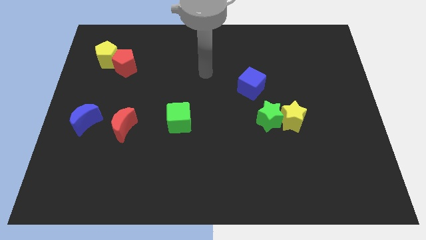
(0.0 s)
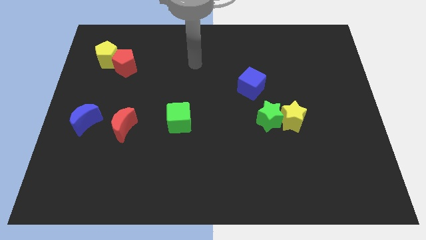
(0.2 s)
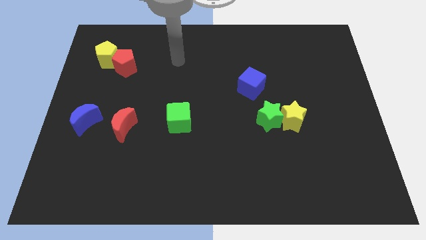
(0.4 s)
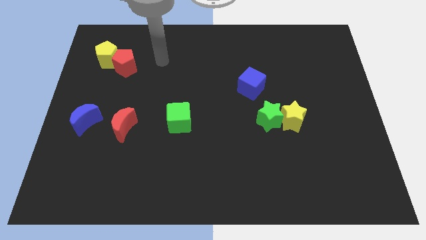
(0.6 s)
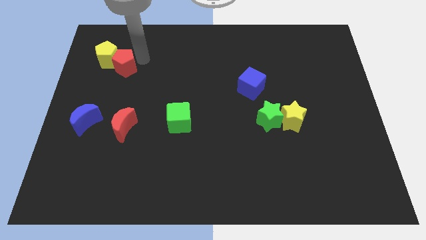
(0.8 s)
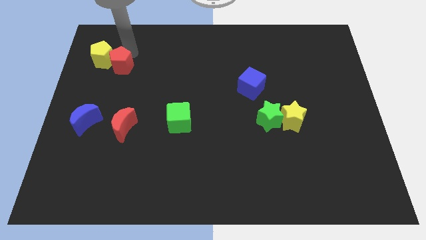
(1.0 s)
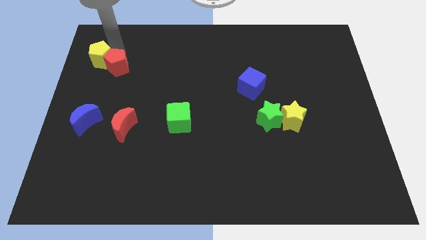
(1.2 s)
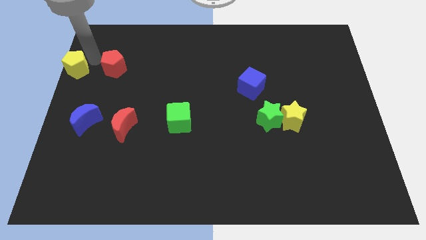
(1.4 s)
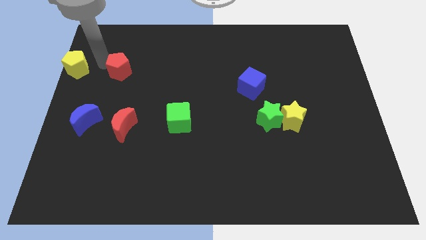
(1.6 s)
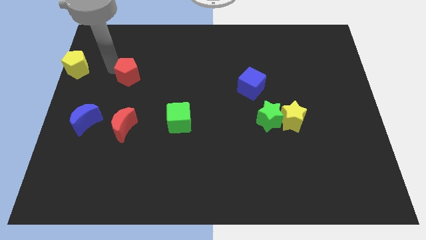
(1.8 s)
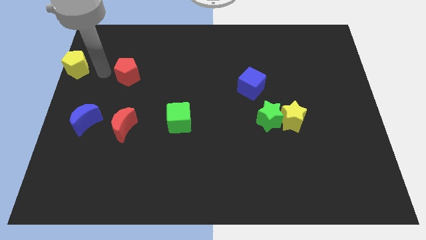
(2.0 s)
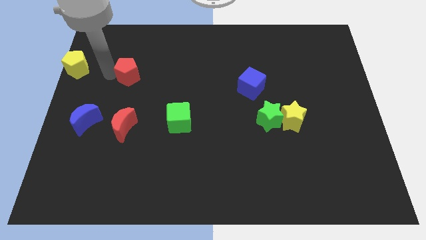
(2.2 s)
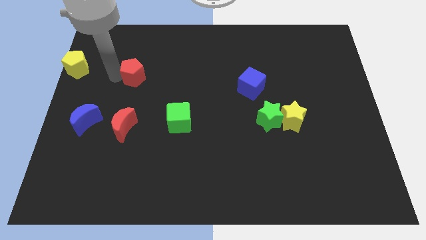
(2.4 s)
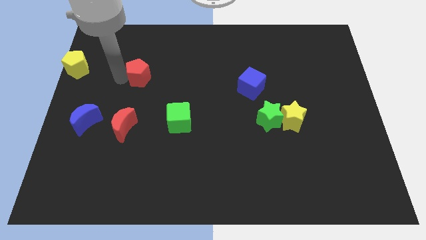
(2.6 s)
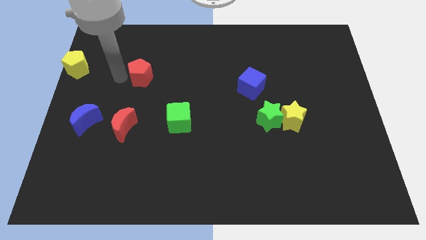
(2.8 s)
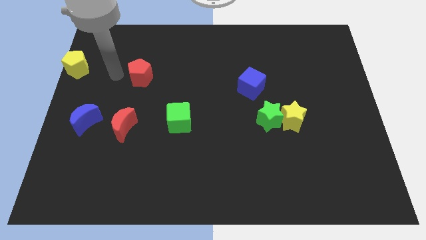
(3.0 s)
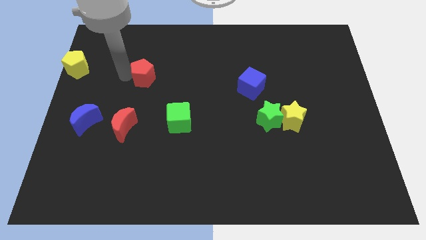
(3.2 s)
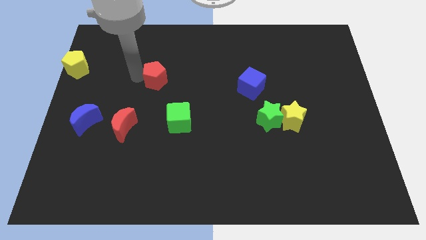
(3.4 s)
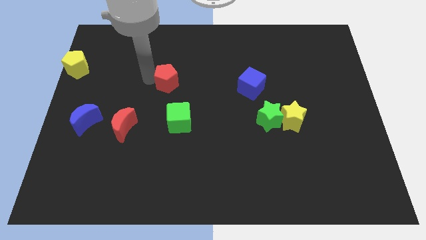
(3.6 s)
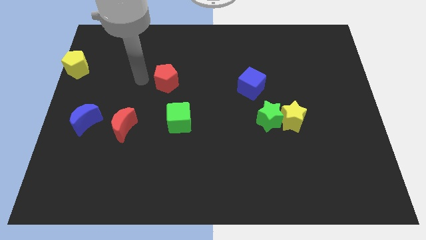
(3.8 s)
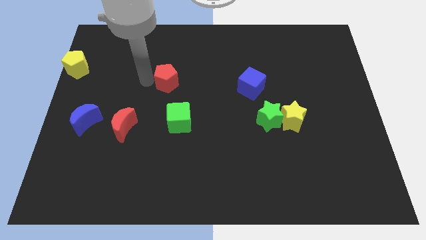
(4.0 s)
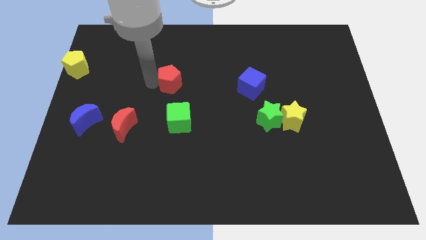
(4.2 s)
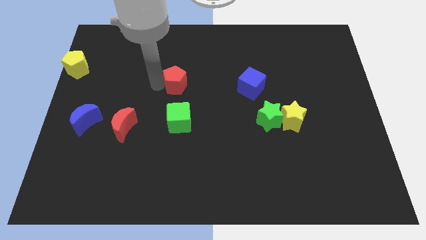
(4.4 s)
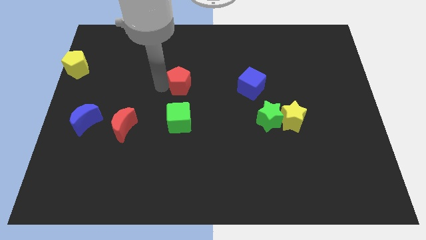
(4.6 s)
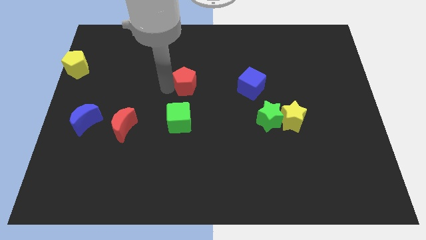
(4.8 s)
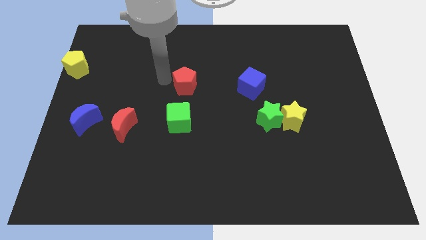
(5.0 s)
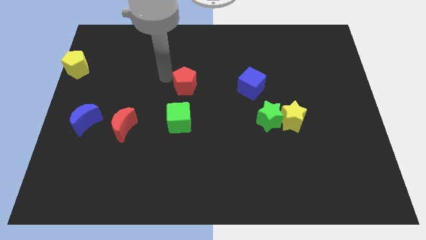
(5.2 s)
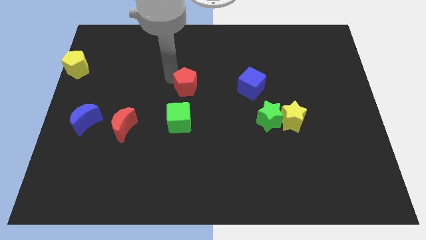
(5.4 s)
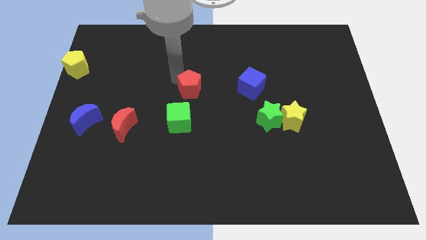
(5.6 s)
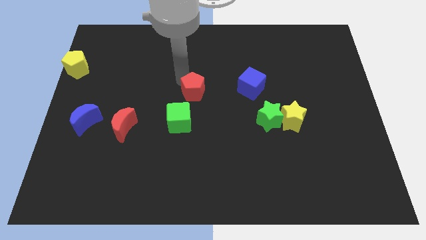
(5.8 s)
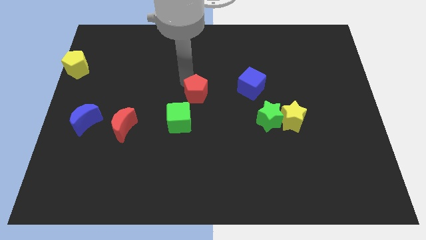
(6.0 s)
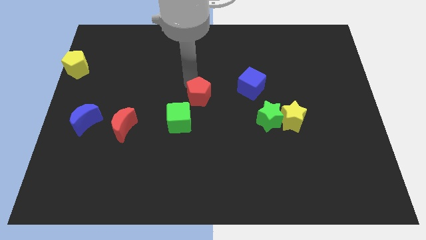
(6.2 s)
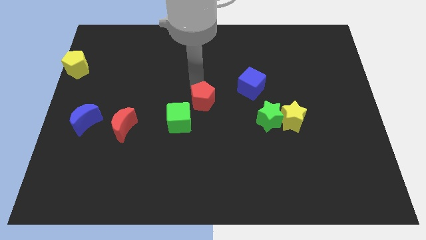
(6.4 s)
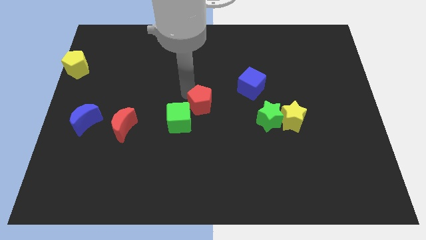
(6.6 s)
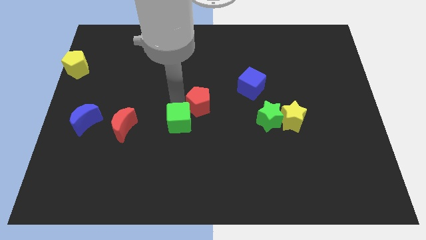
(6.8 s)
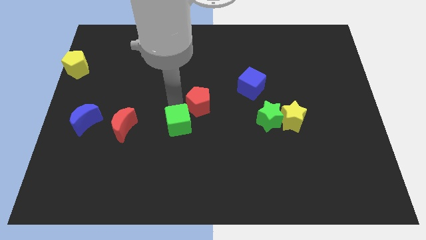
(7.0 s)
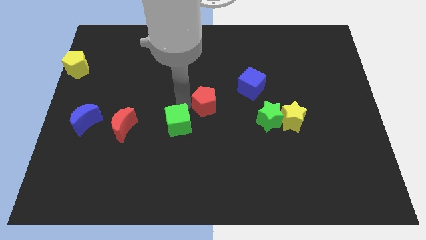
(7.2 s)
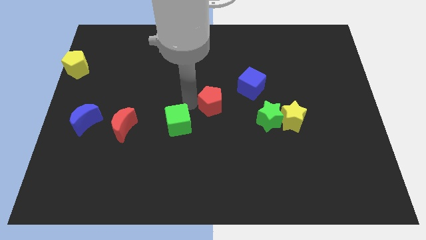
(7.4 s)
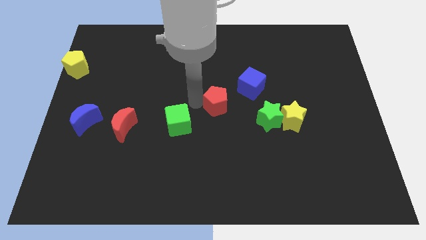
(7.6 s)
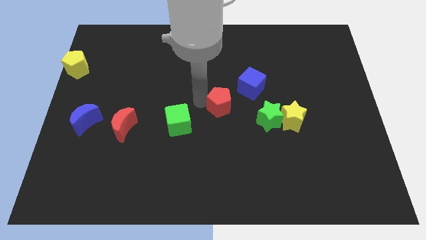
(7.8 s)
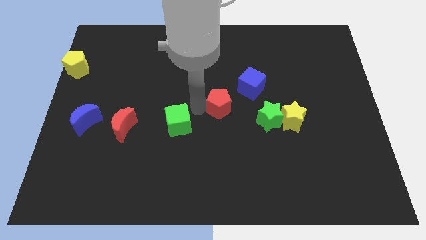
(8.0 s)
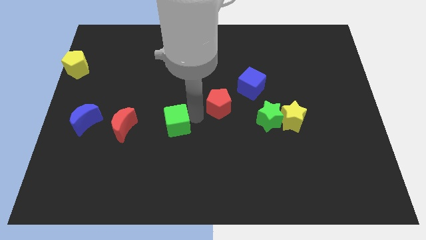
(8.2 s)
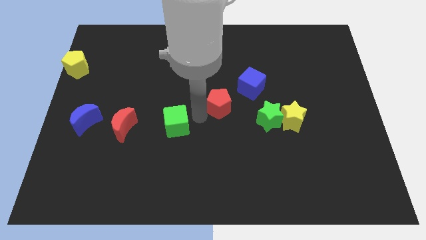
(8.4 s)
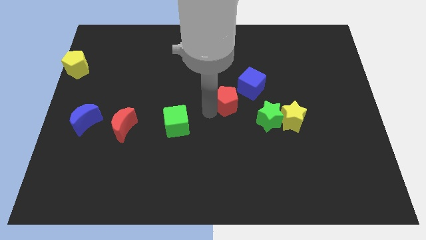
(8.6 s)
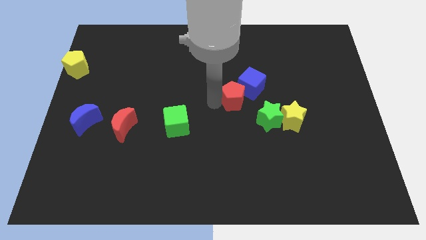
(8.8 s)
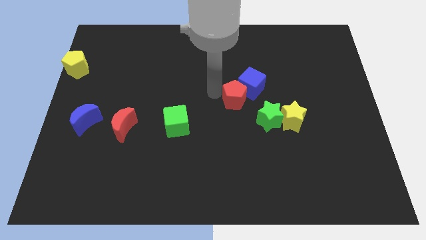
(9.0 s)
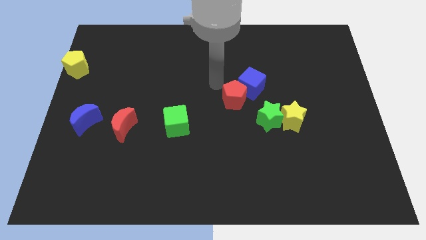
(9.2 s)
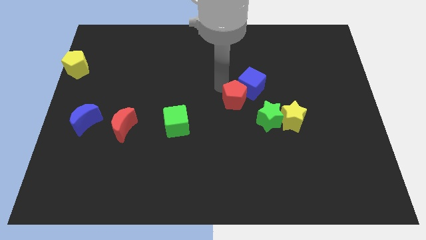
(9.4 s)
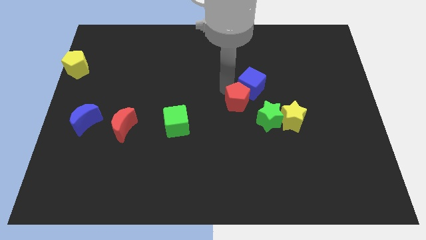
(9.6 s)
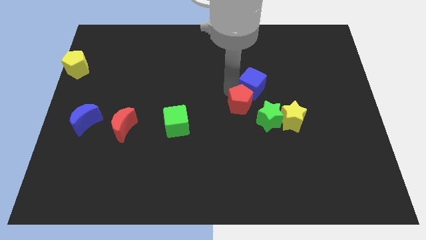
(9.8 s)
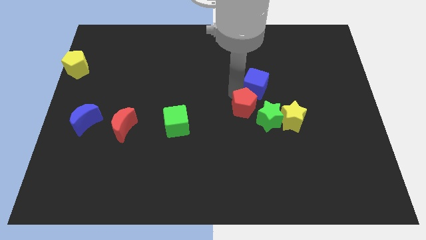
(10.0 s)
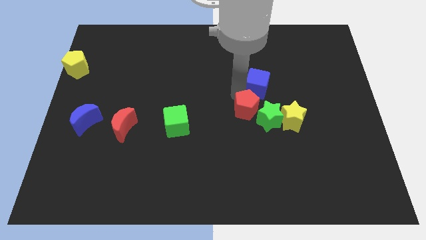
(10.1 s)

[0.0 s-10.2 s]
slide the red pentagon to the green star

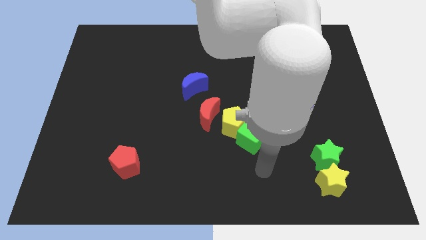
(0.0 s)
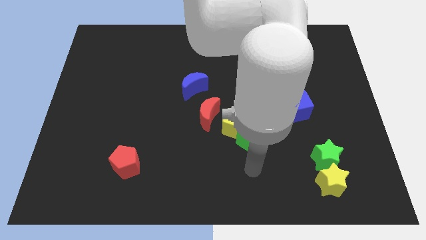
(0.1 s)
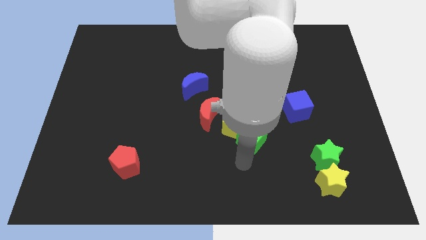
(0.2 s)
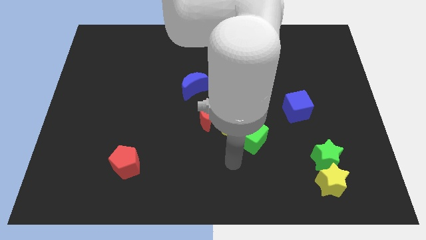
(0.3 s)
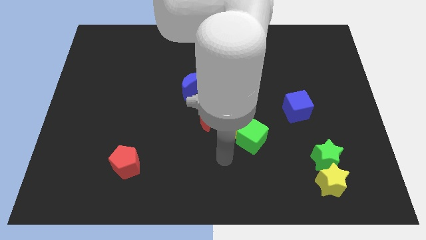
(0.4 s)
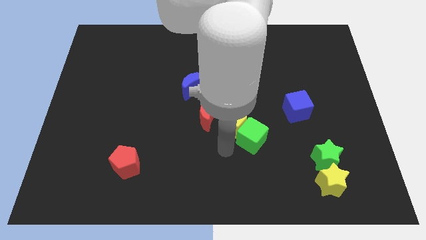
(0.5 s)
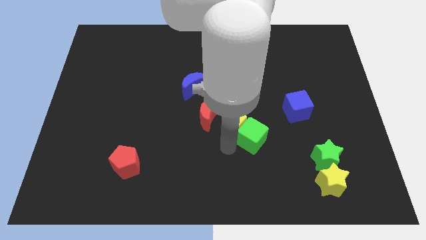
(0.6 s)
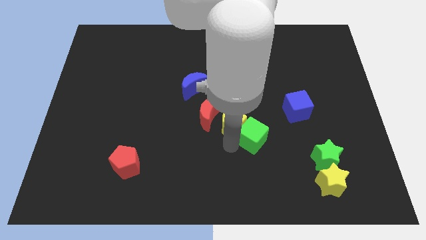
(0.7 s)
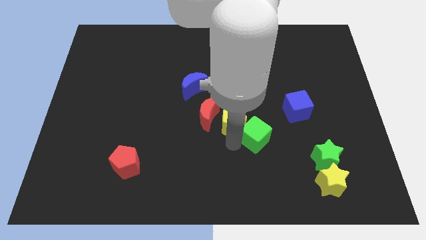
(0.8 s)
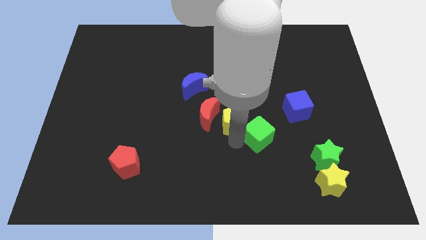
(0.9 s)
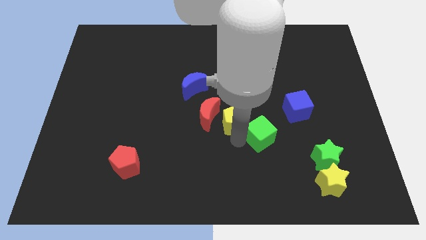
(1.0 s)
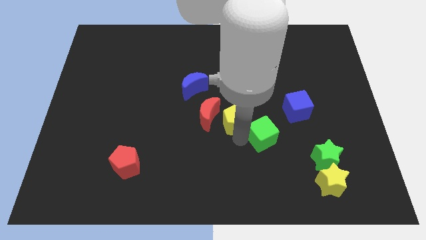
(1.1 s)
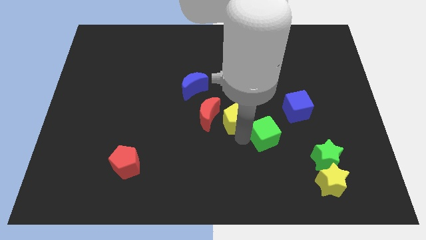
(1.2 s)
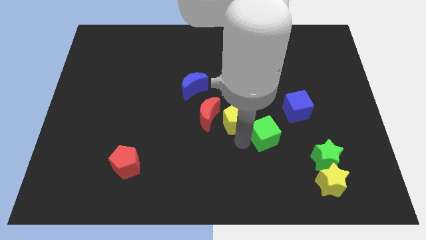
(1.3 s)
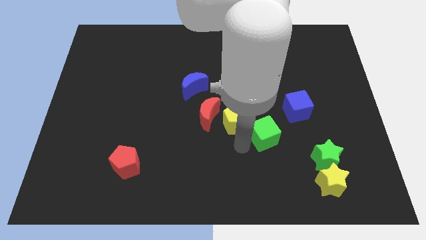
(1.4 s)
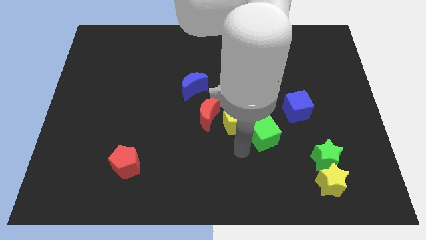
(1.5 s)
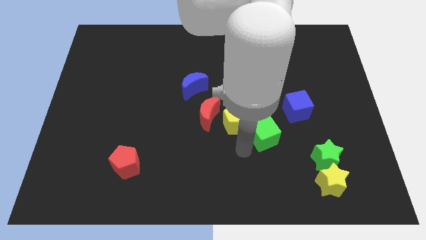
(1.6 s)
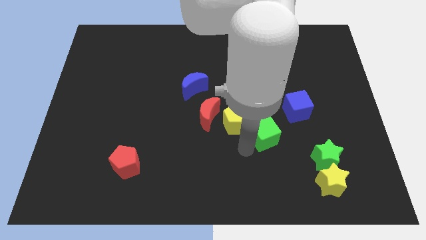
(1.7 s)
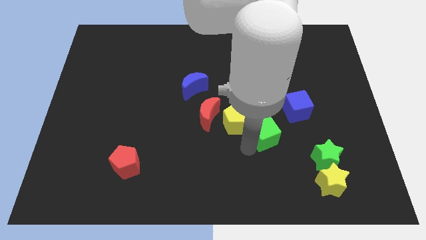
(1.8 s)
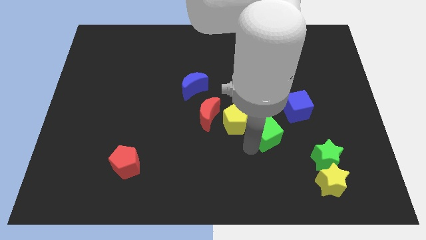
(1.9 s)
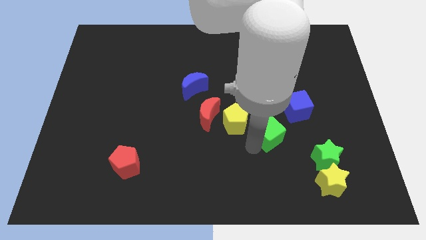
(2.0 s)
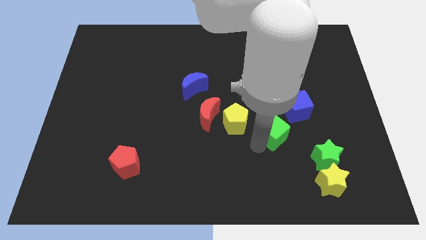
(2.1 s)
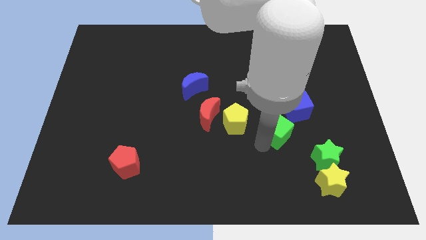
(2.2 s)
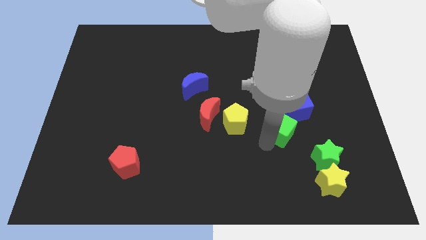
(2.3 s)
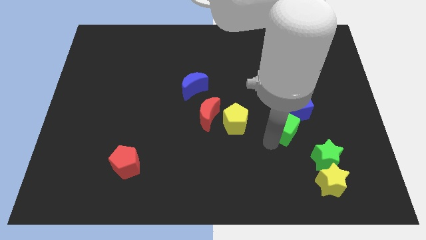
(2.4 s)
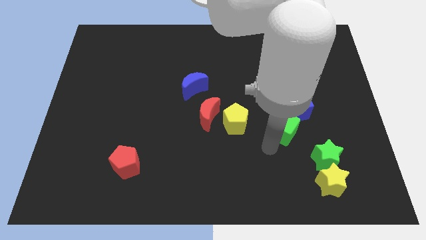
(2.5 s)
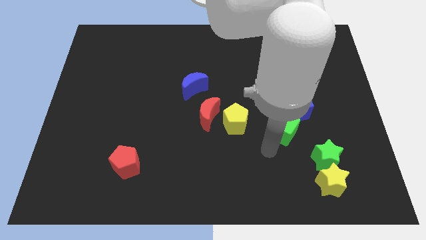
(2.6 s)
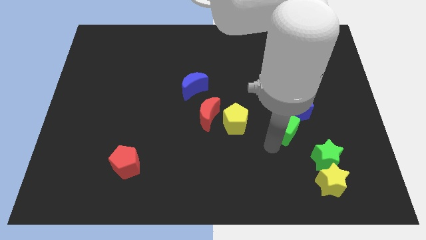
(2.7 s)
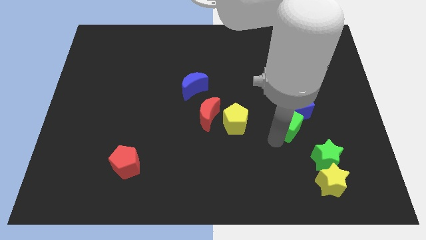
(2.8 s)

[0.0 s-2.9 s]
slide the green cube towards the blue cube
